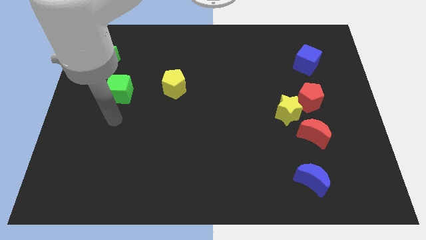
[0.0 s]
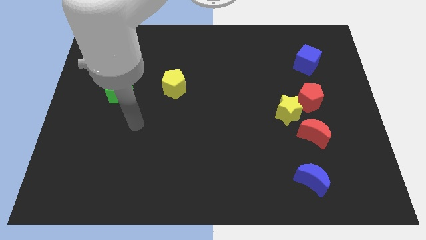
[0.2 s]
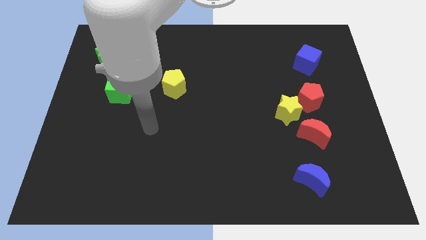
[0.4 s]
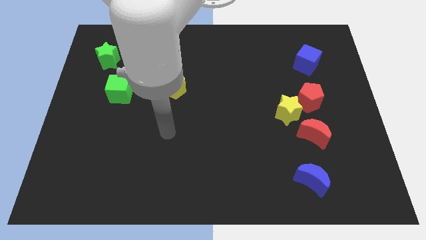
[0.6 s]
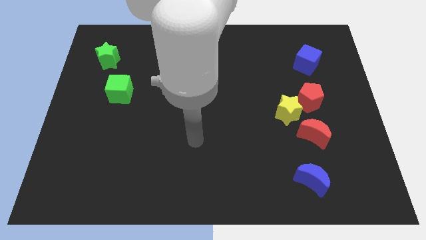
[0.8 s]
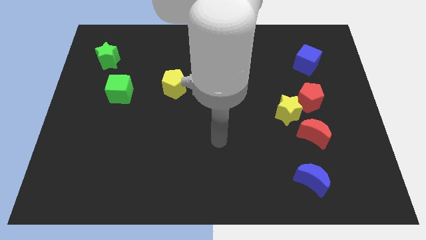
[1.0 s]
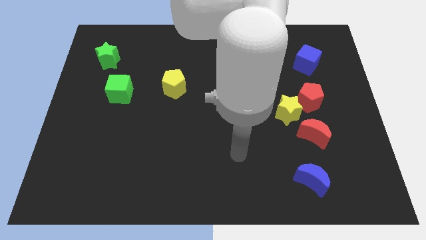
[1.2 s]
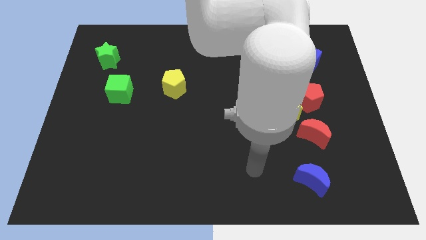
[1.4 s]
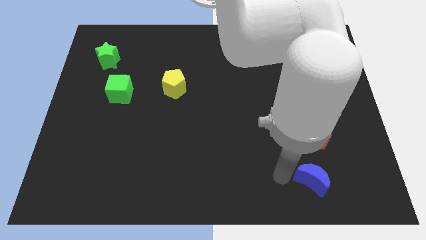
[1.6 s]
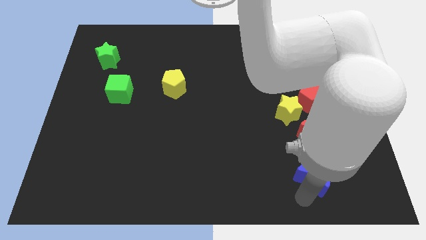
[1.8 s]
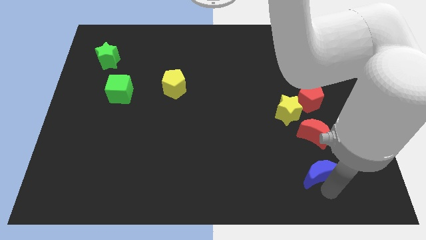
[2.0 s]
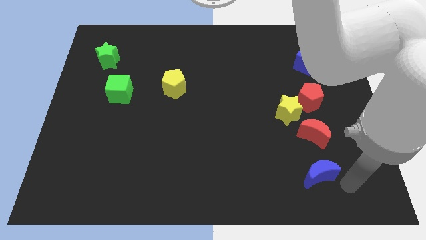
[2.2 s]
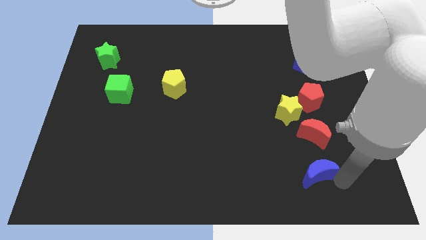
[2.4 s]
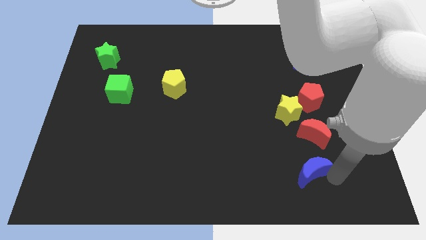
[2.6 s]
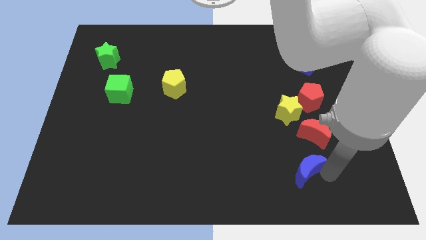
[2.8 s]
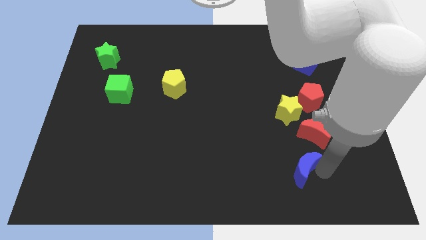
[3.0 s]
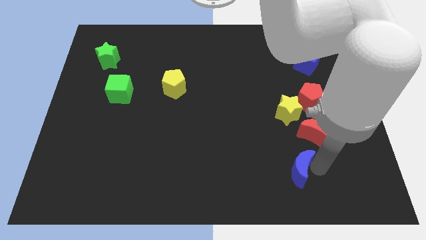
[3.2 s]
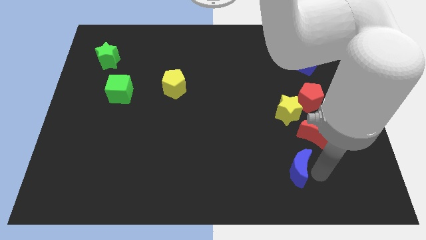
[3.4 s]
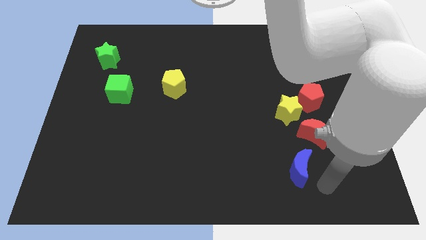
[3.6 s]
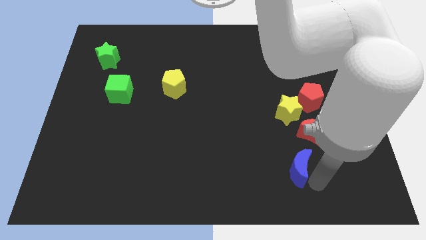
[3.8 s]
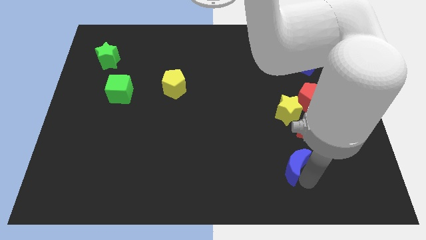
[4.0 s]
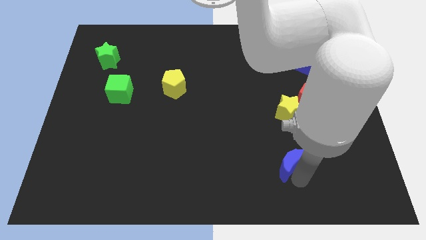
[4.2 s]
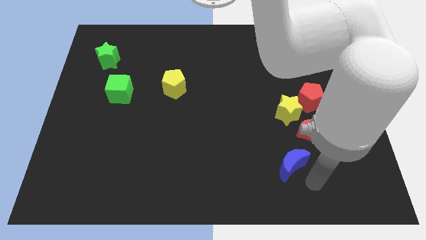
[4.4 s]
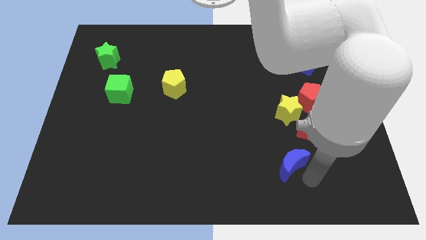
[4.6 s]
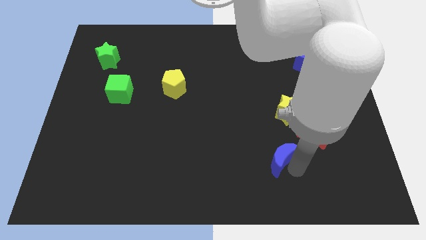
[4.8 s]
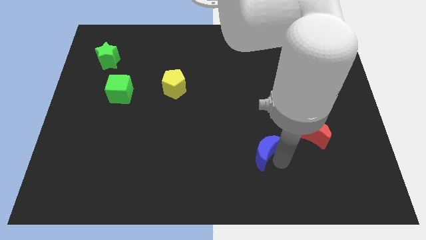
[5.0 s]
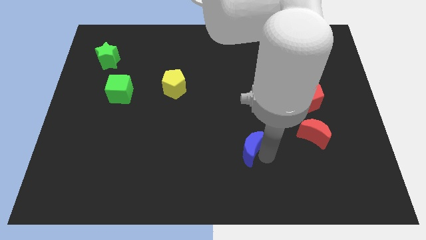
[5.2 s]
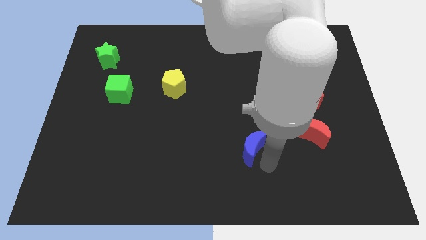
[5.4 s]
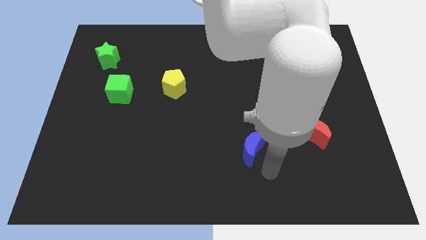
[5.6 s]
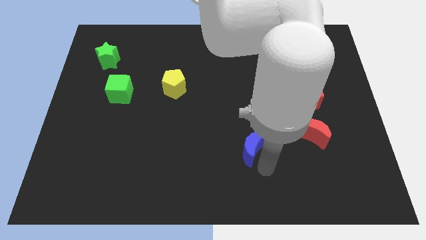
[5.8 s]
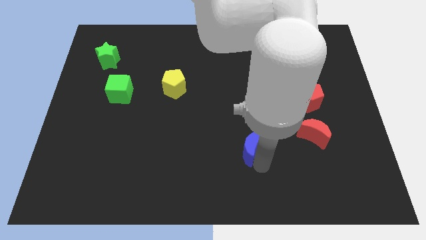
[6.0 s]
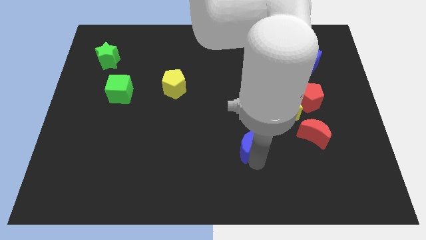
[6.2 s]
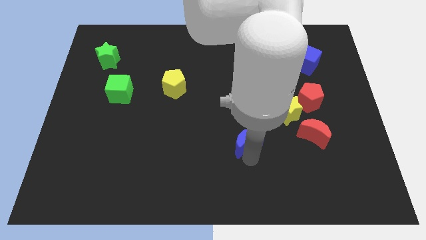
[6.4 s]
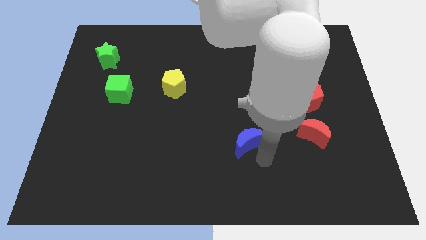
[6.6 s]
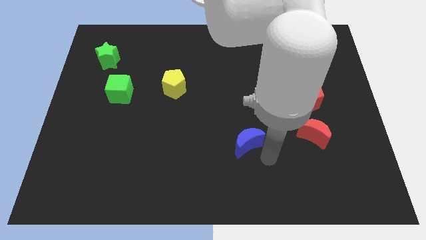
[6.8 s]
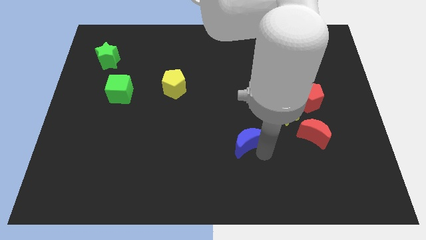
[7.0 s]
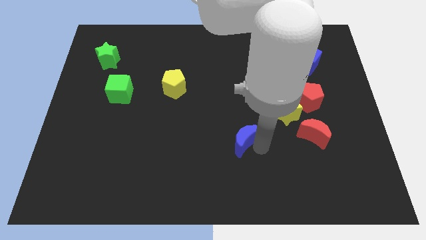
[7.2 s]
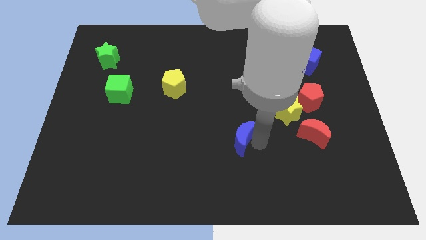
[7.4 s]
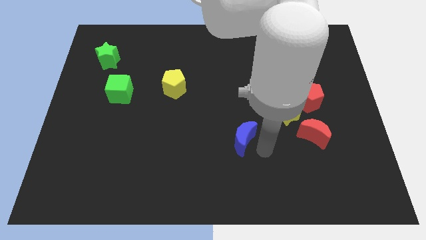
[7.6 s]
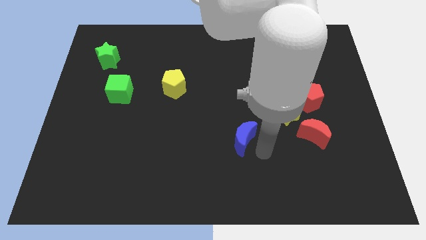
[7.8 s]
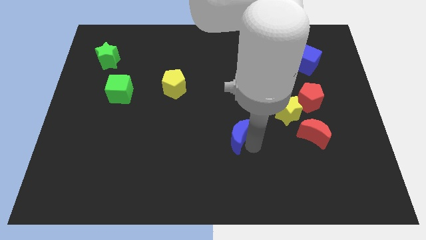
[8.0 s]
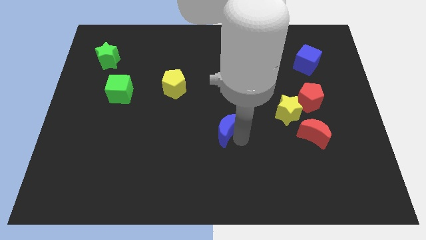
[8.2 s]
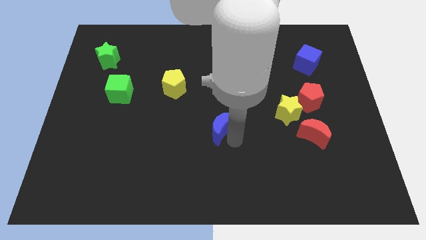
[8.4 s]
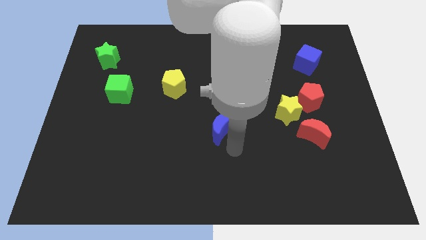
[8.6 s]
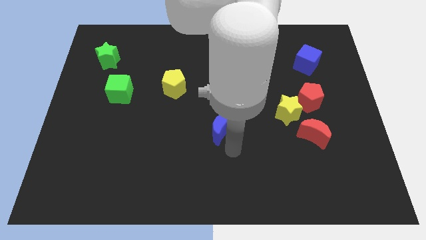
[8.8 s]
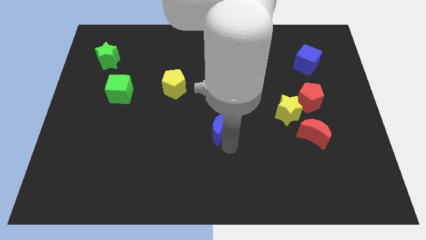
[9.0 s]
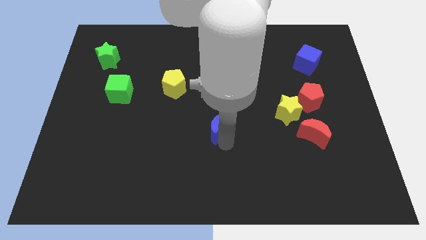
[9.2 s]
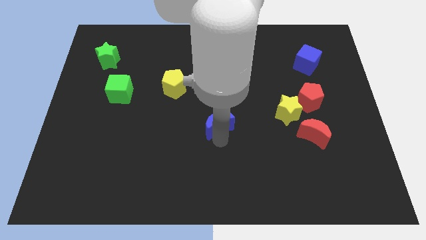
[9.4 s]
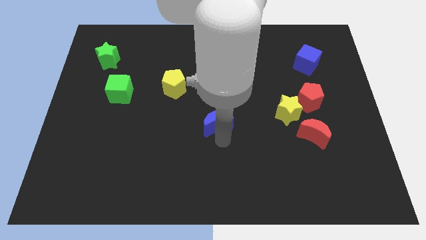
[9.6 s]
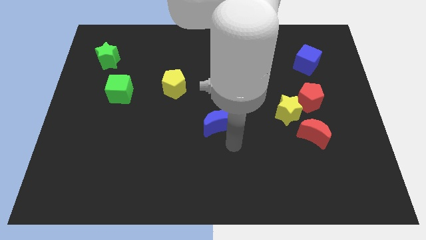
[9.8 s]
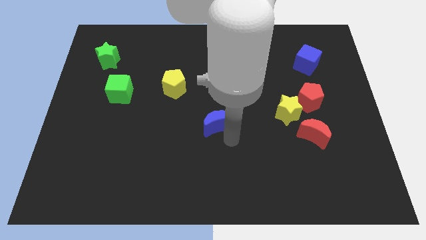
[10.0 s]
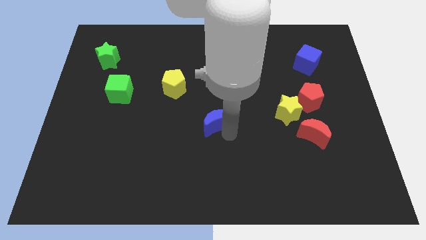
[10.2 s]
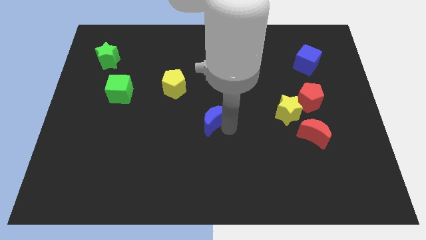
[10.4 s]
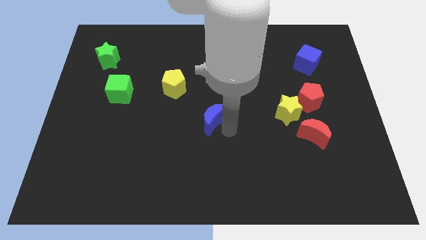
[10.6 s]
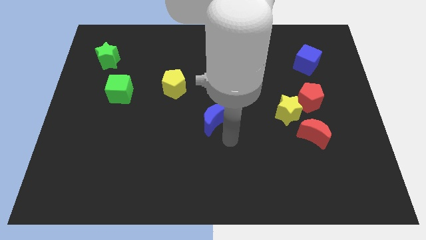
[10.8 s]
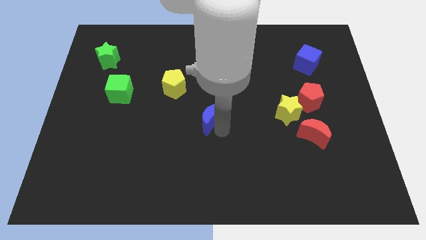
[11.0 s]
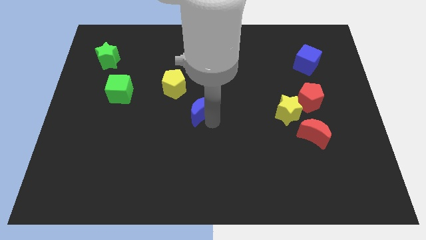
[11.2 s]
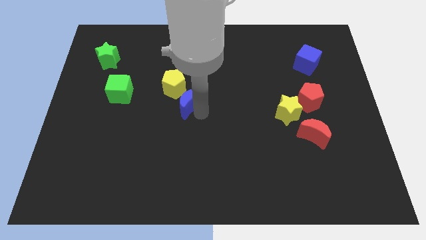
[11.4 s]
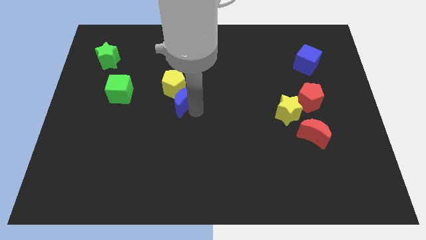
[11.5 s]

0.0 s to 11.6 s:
slide the blue moon close to the yellow pentagon

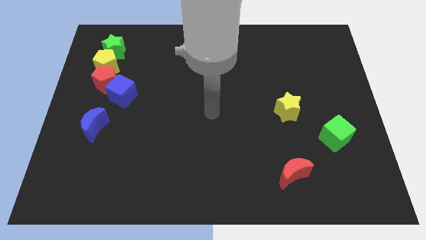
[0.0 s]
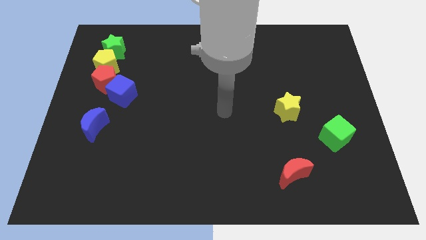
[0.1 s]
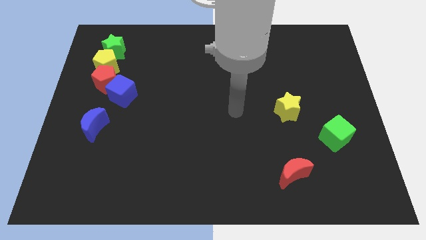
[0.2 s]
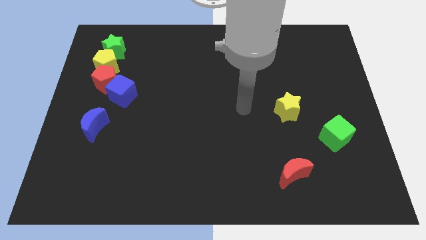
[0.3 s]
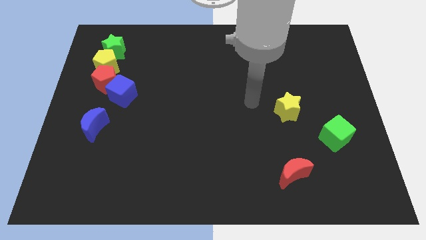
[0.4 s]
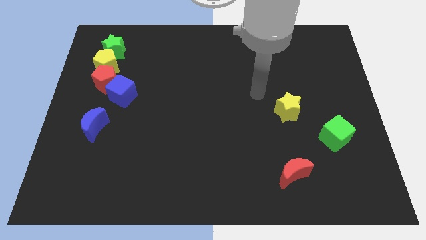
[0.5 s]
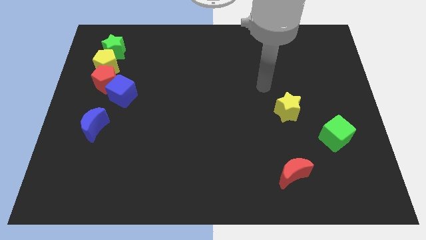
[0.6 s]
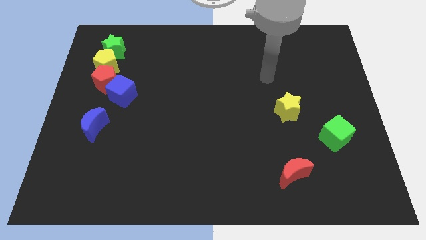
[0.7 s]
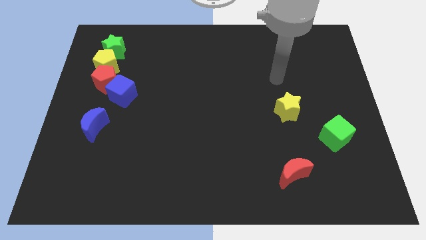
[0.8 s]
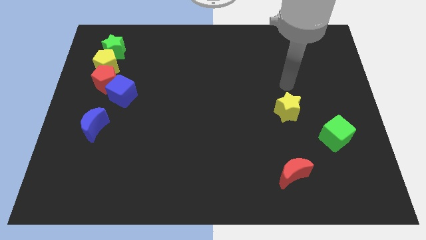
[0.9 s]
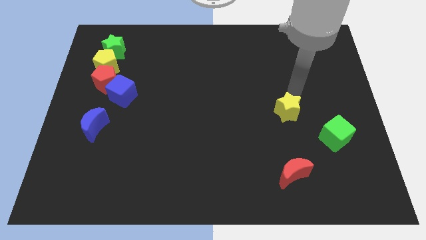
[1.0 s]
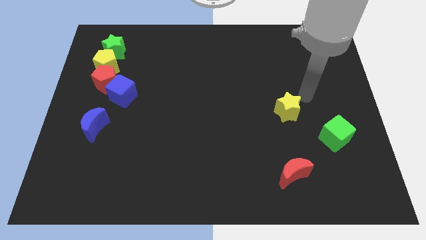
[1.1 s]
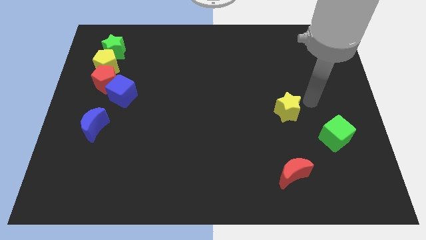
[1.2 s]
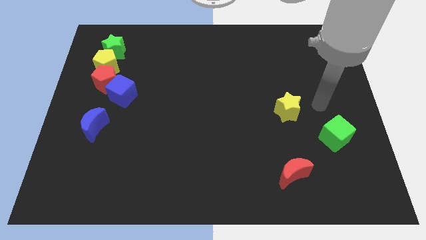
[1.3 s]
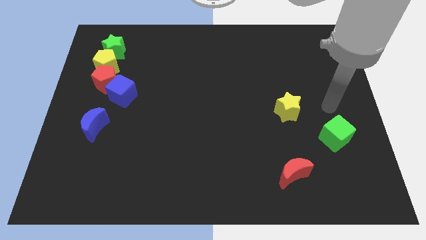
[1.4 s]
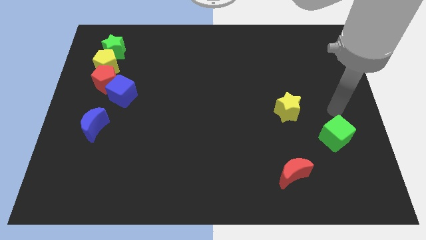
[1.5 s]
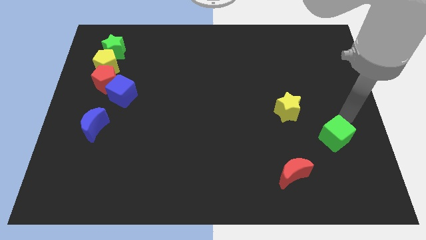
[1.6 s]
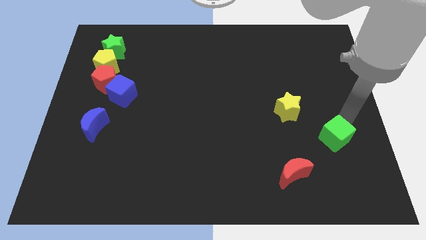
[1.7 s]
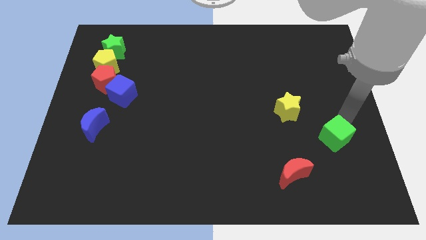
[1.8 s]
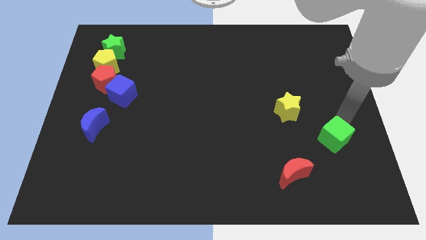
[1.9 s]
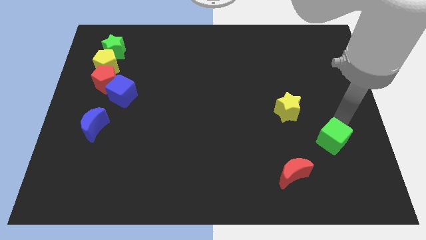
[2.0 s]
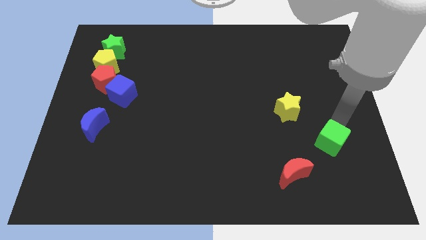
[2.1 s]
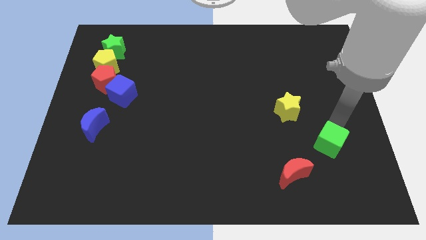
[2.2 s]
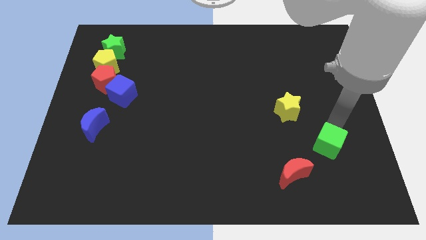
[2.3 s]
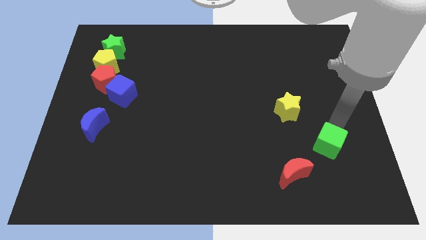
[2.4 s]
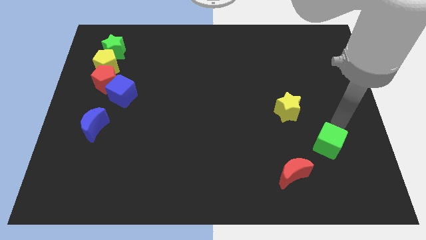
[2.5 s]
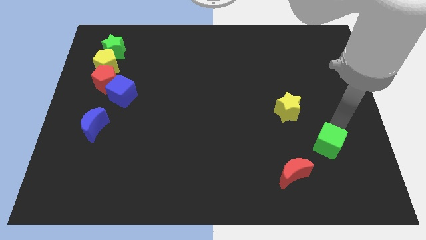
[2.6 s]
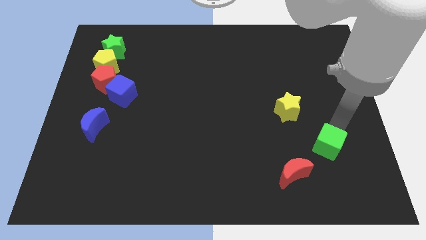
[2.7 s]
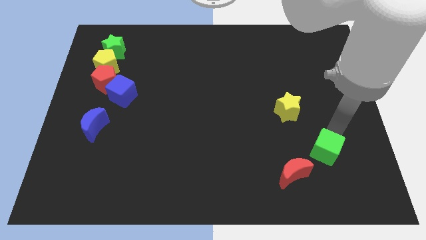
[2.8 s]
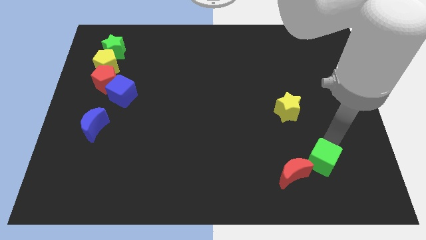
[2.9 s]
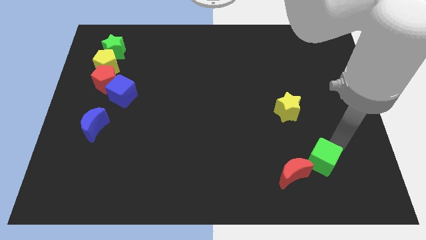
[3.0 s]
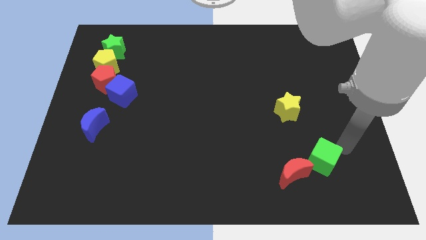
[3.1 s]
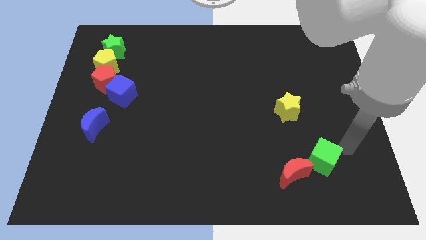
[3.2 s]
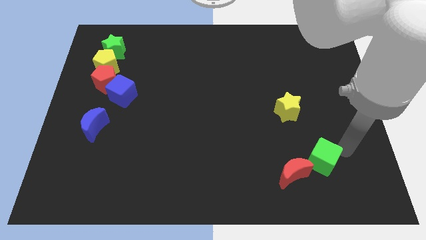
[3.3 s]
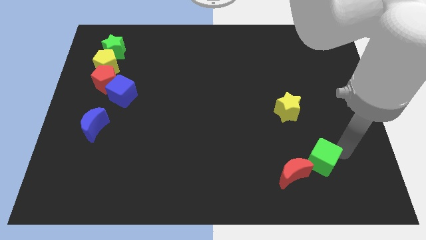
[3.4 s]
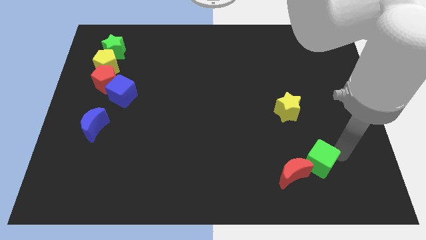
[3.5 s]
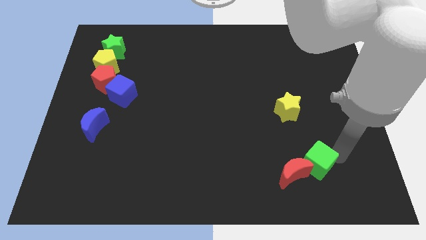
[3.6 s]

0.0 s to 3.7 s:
slide the green cube towards the red moon
